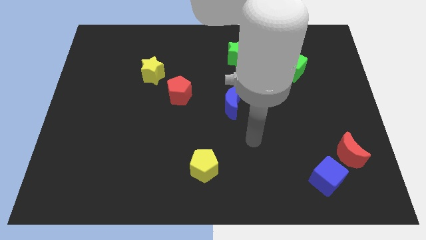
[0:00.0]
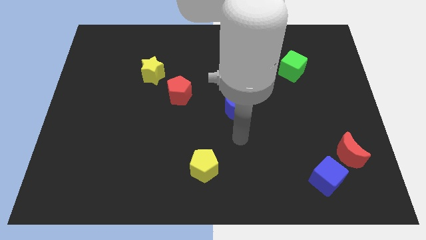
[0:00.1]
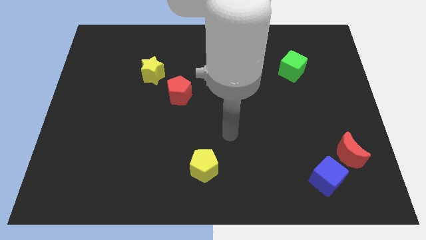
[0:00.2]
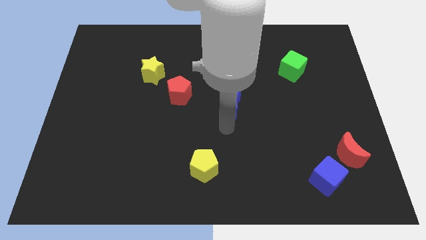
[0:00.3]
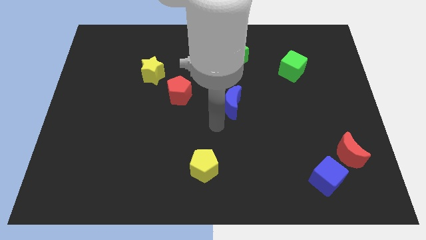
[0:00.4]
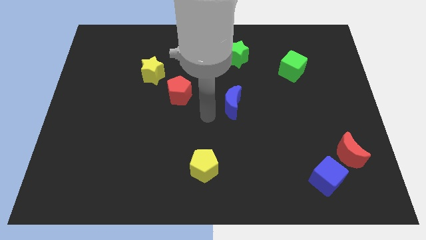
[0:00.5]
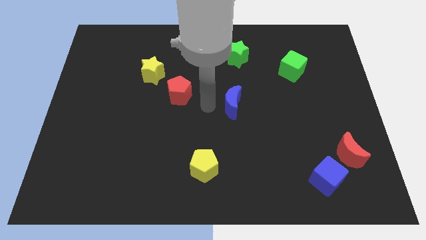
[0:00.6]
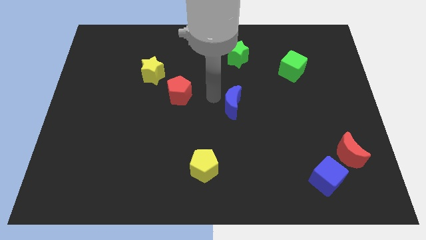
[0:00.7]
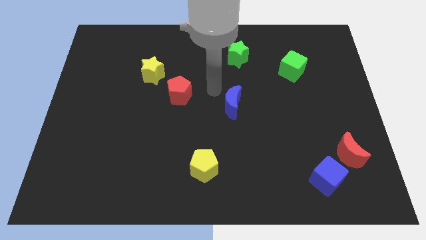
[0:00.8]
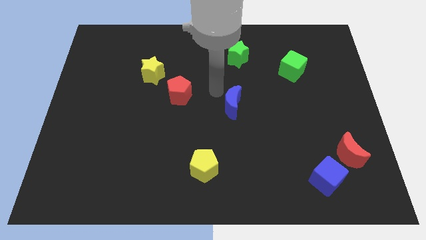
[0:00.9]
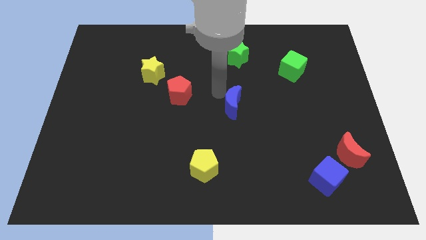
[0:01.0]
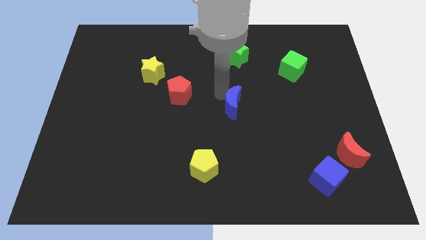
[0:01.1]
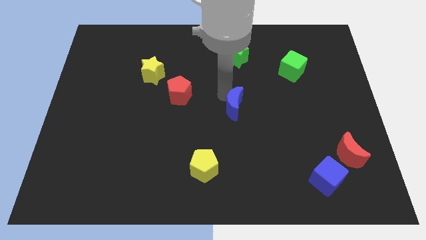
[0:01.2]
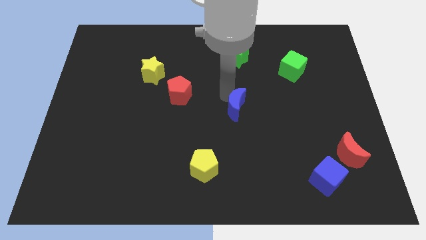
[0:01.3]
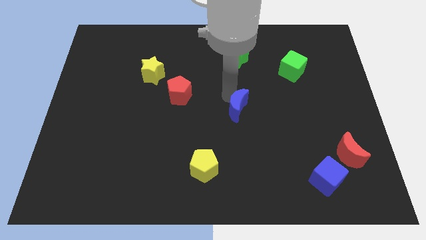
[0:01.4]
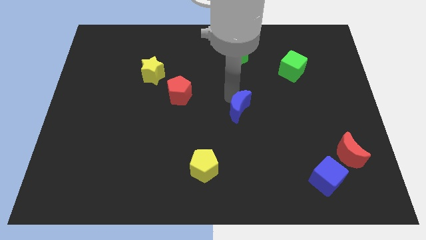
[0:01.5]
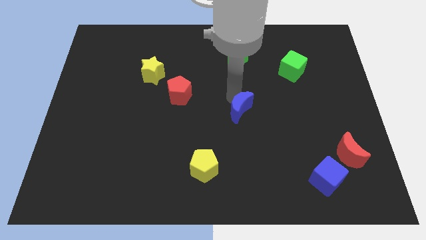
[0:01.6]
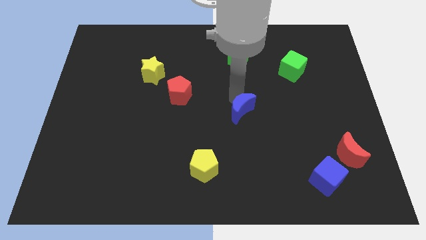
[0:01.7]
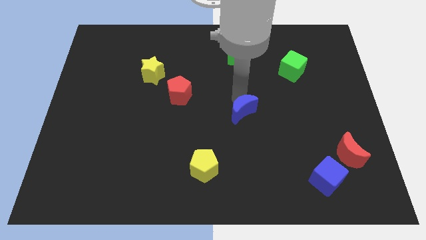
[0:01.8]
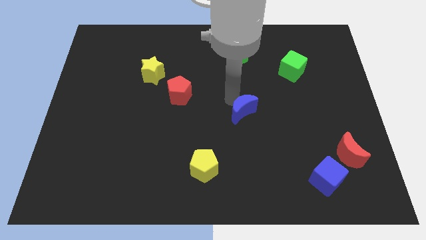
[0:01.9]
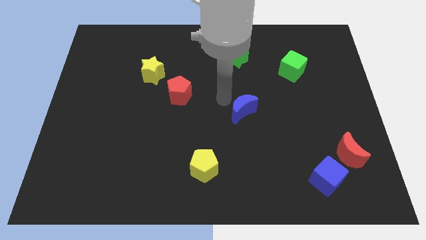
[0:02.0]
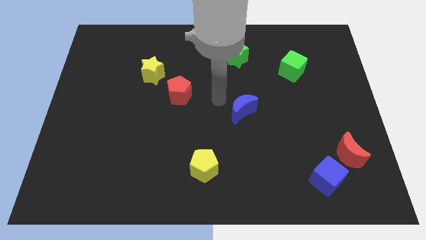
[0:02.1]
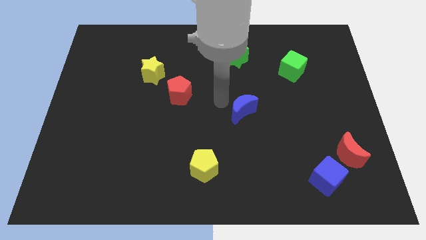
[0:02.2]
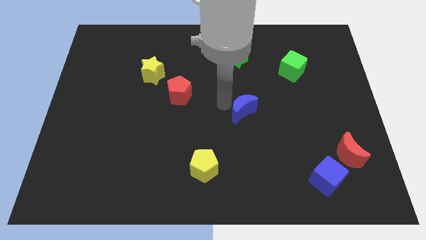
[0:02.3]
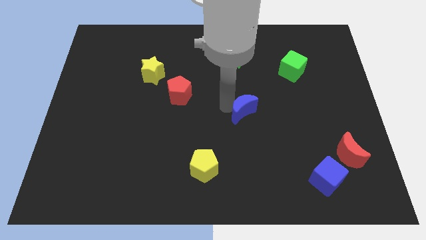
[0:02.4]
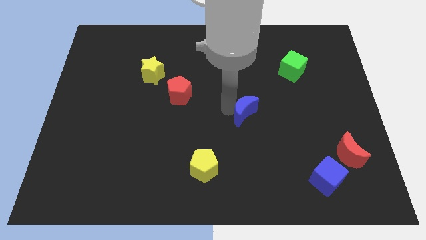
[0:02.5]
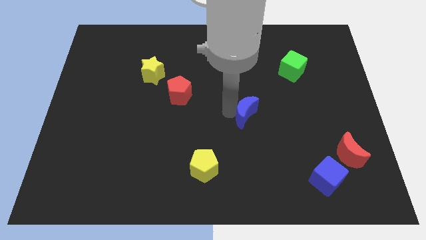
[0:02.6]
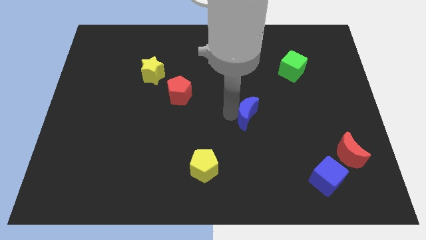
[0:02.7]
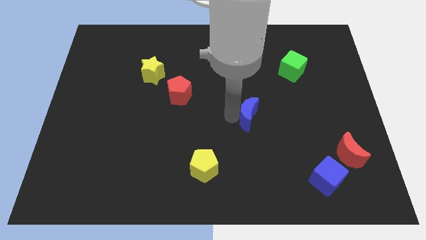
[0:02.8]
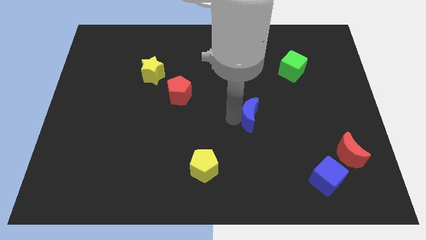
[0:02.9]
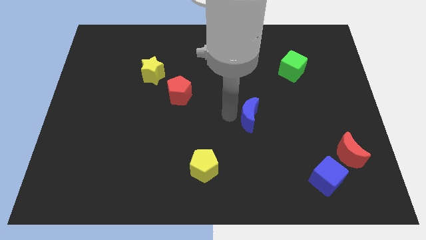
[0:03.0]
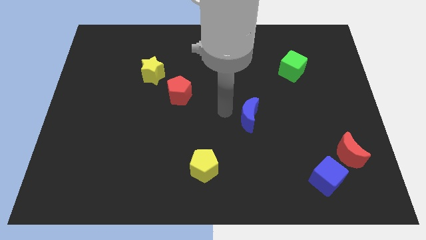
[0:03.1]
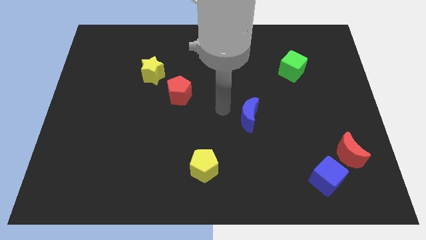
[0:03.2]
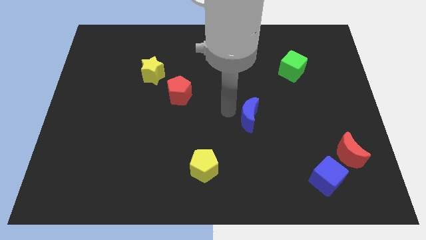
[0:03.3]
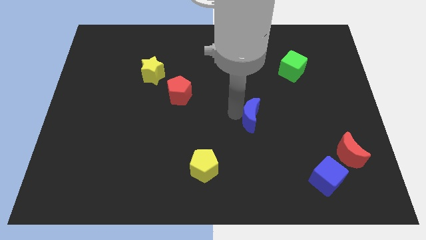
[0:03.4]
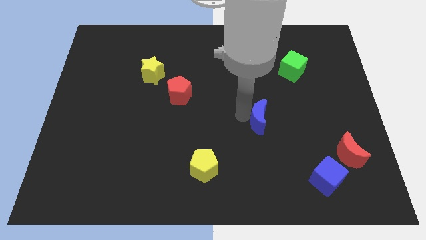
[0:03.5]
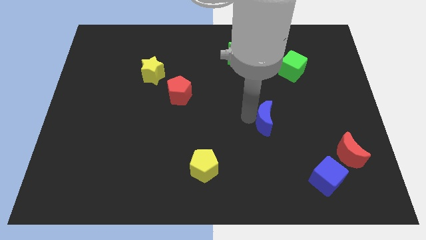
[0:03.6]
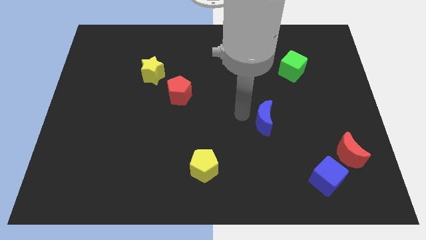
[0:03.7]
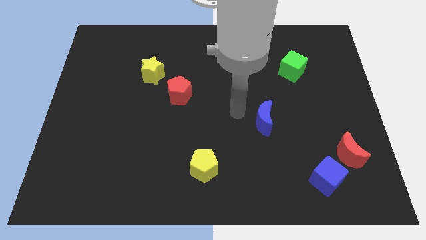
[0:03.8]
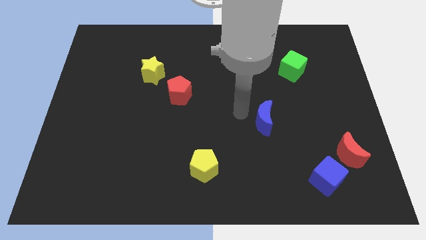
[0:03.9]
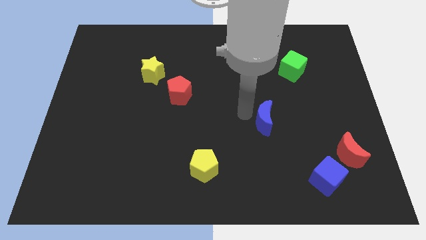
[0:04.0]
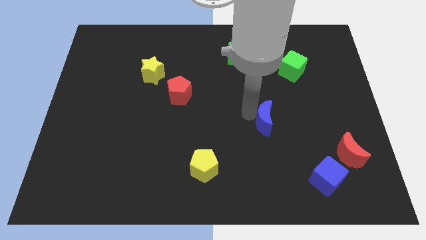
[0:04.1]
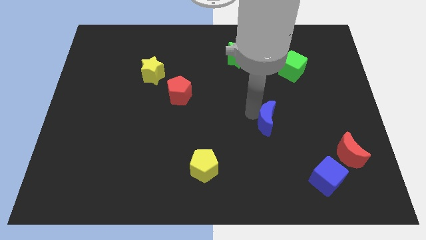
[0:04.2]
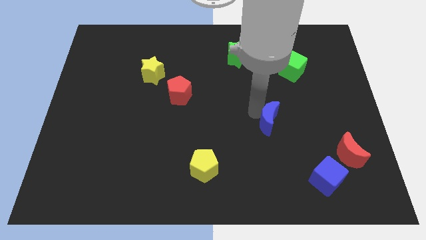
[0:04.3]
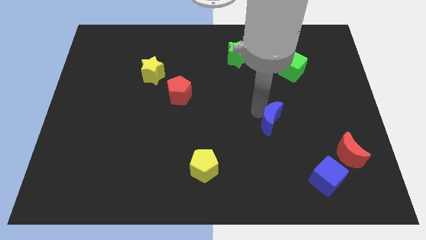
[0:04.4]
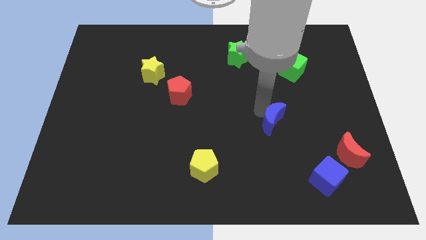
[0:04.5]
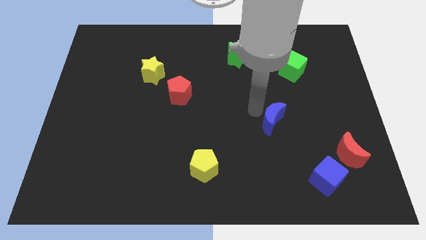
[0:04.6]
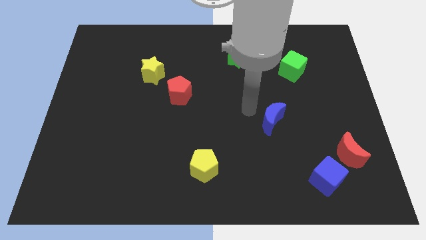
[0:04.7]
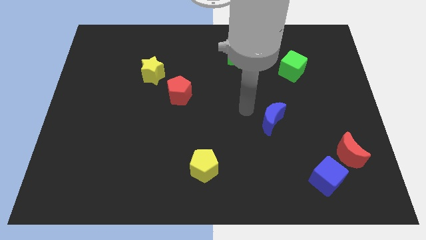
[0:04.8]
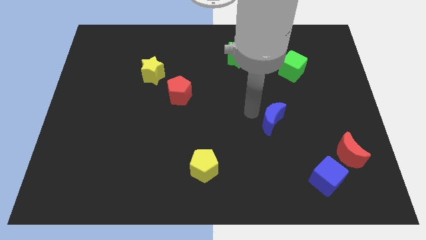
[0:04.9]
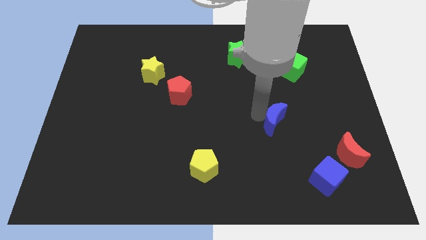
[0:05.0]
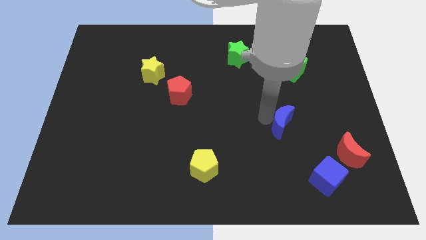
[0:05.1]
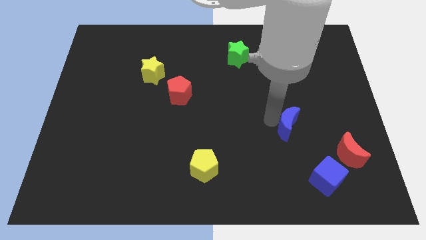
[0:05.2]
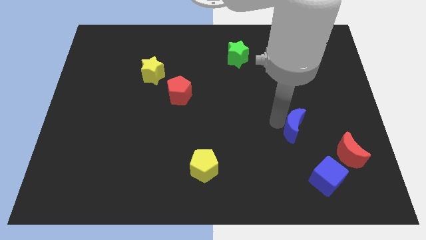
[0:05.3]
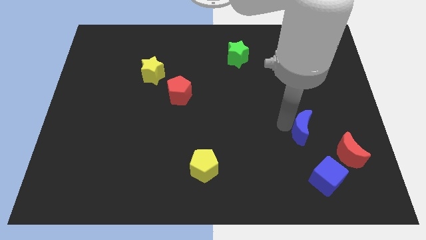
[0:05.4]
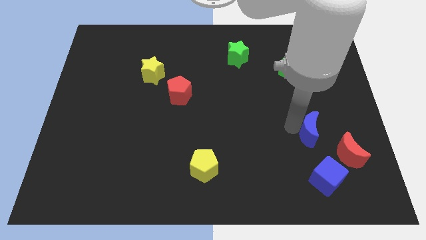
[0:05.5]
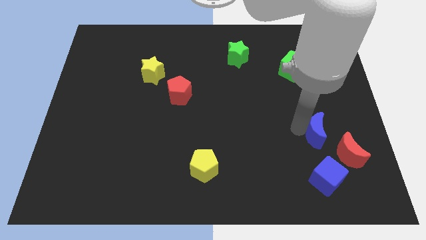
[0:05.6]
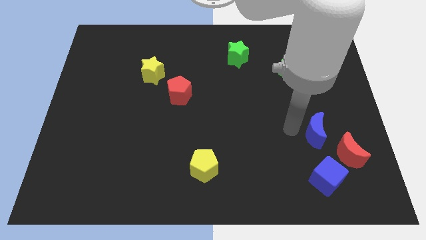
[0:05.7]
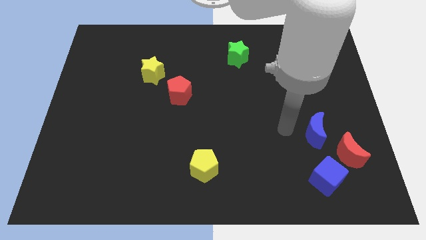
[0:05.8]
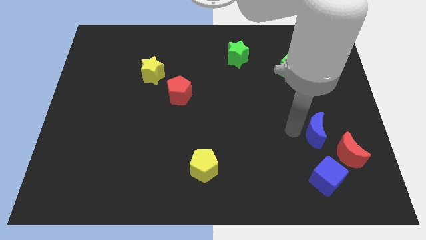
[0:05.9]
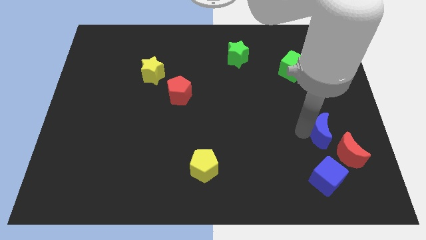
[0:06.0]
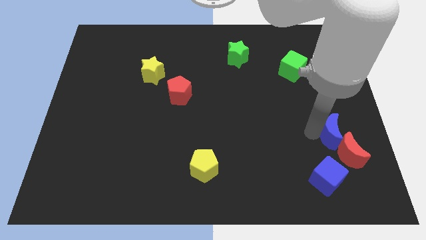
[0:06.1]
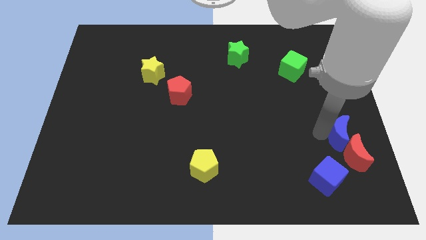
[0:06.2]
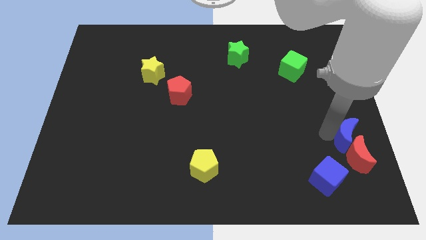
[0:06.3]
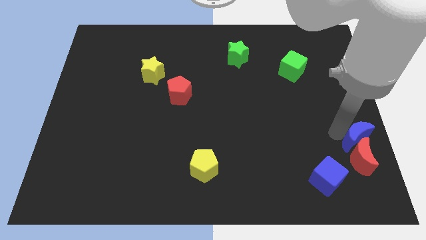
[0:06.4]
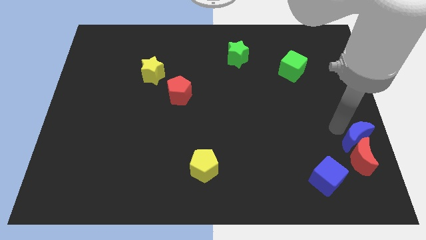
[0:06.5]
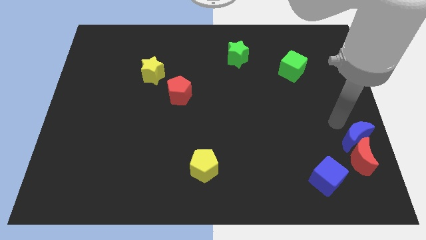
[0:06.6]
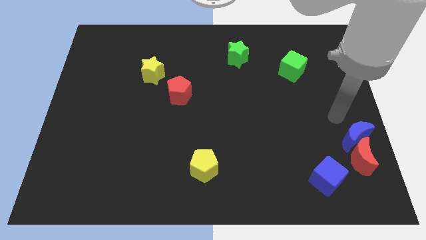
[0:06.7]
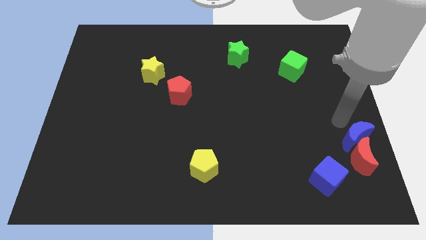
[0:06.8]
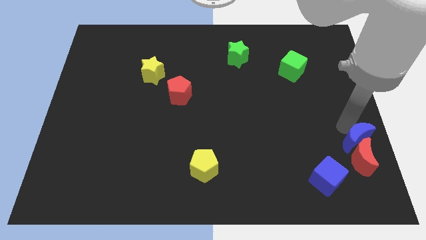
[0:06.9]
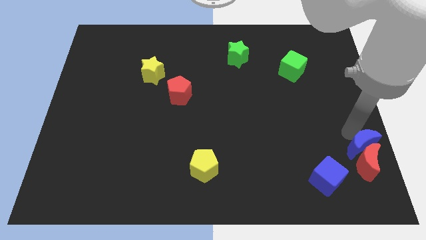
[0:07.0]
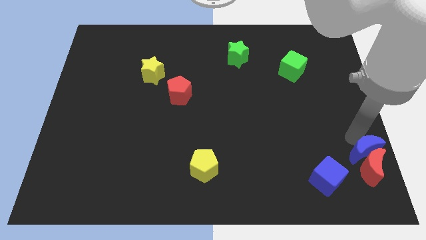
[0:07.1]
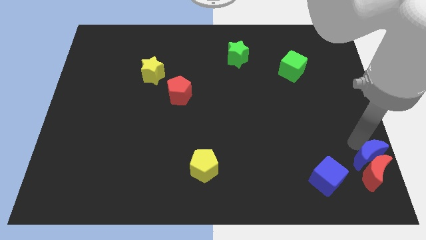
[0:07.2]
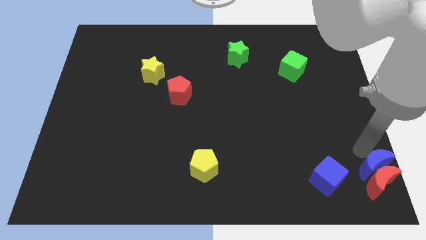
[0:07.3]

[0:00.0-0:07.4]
push the blue moon to the bottom right of the board
